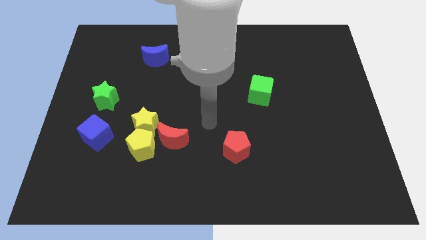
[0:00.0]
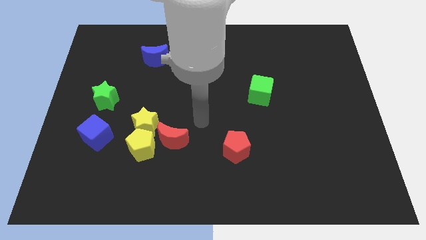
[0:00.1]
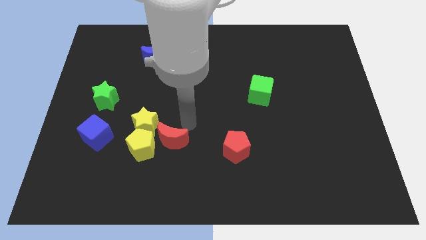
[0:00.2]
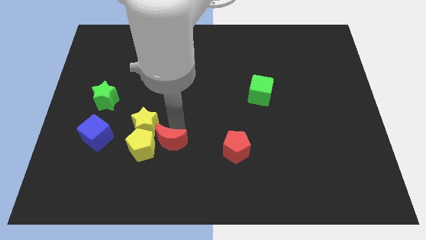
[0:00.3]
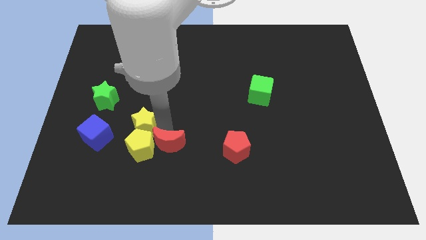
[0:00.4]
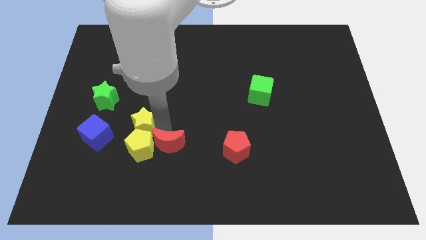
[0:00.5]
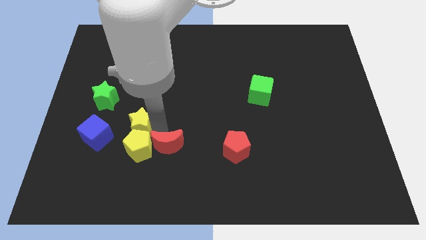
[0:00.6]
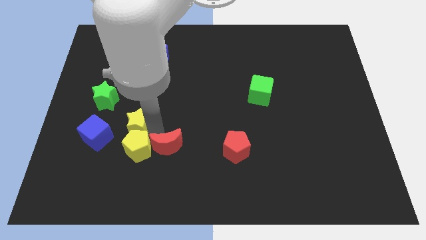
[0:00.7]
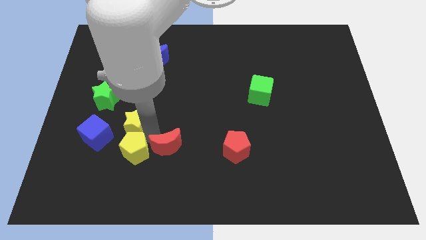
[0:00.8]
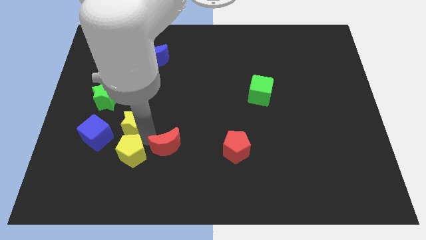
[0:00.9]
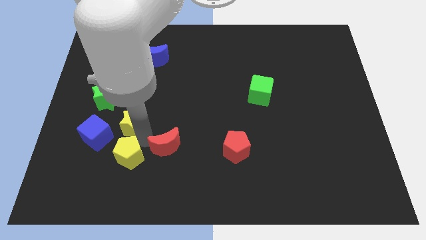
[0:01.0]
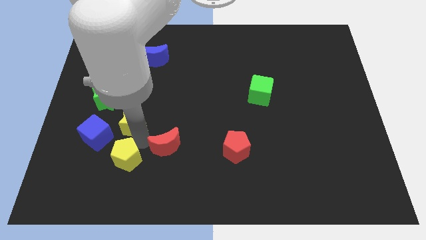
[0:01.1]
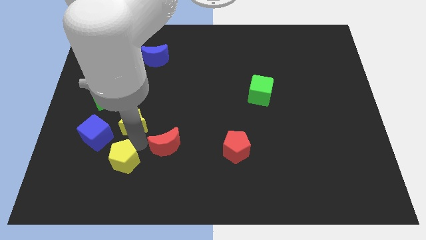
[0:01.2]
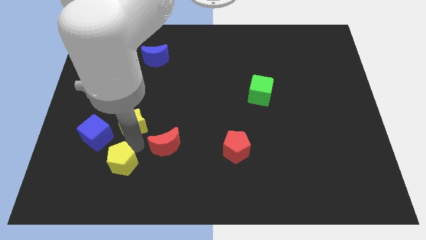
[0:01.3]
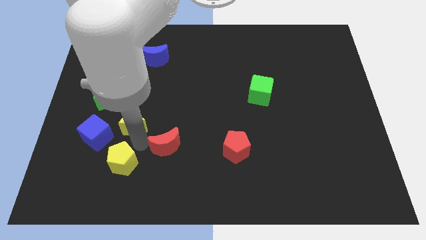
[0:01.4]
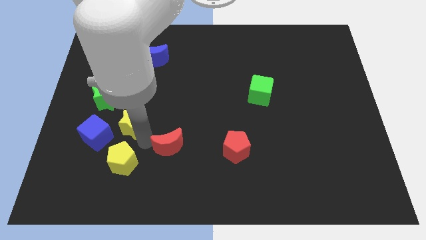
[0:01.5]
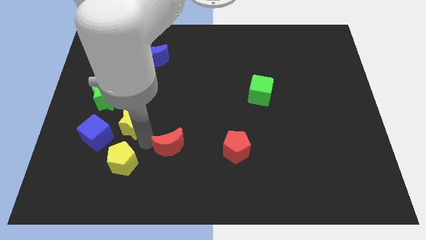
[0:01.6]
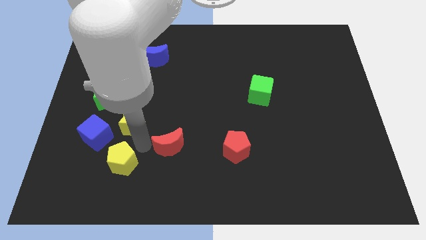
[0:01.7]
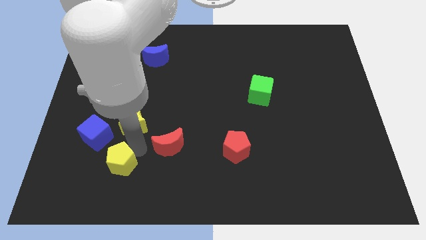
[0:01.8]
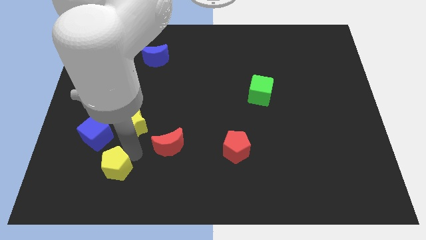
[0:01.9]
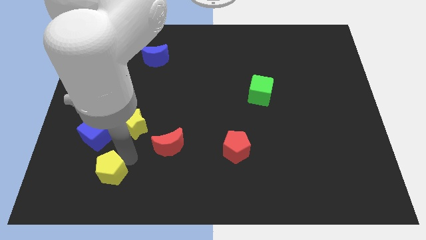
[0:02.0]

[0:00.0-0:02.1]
pull the yellow pentagon apart from the yellow star and red moon

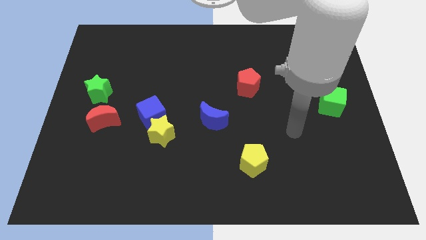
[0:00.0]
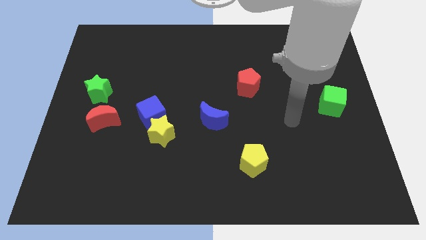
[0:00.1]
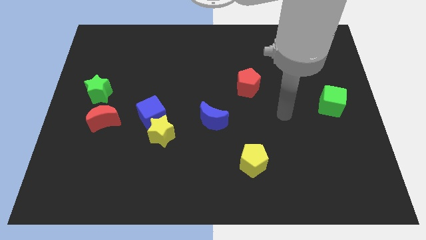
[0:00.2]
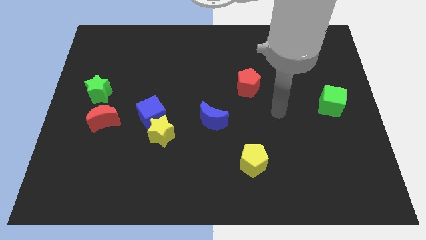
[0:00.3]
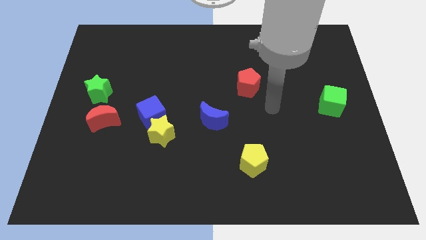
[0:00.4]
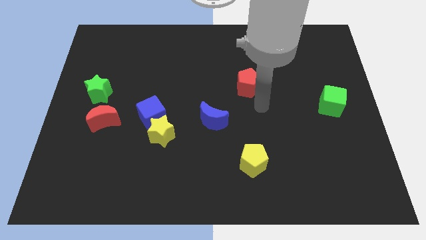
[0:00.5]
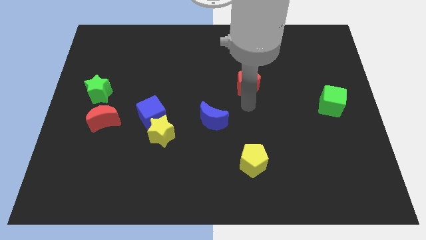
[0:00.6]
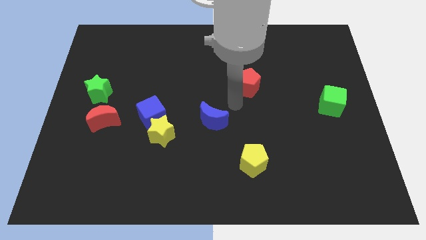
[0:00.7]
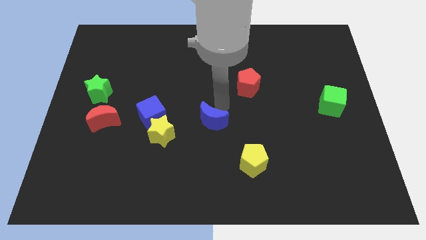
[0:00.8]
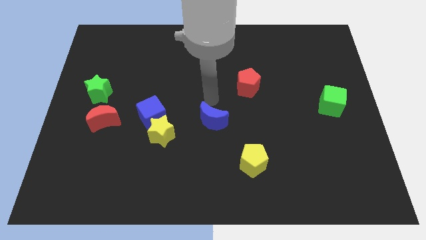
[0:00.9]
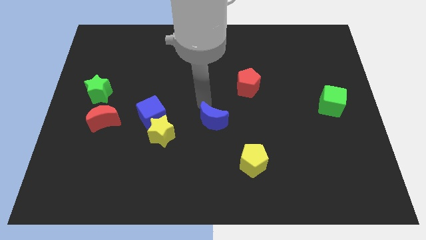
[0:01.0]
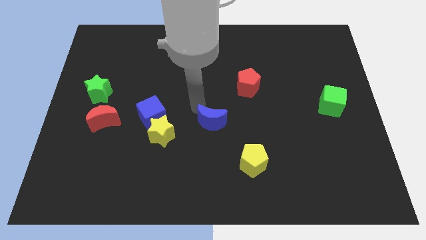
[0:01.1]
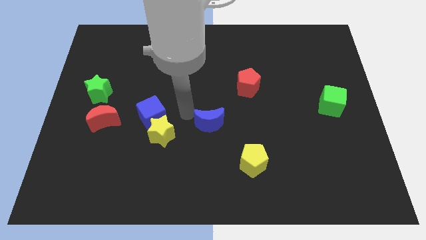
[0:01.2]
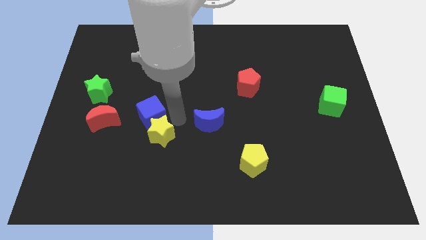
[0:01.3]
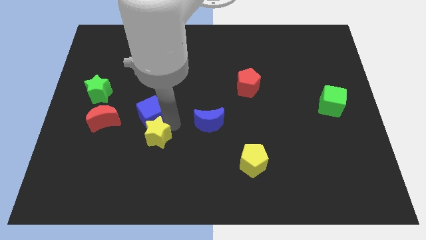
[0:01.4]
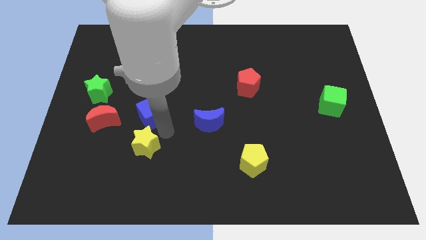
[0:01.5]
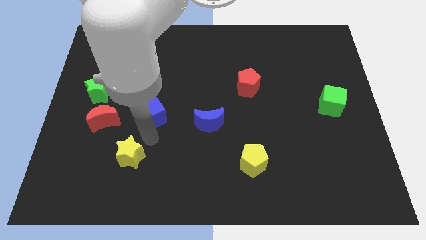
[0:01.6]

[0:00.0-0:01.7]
move the blue cube away from the yellow star

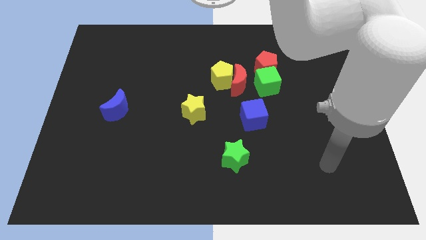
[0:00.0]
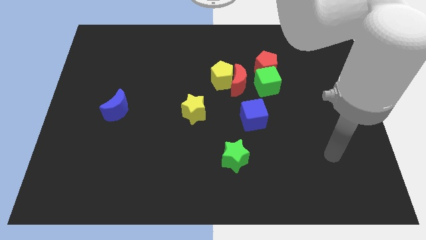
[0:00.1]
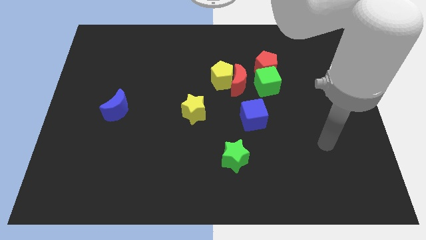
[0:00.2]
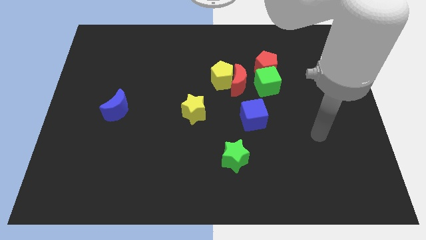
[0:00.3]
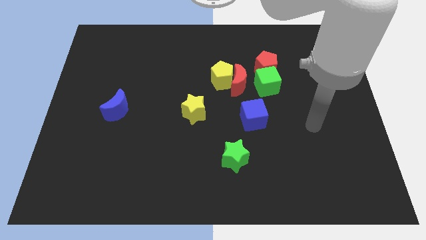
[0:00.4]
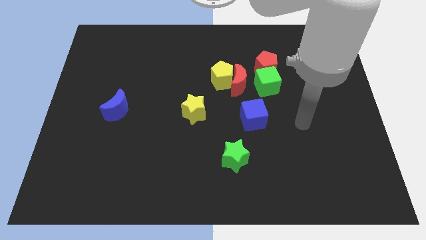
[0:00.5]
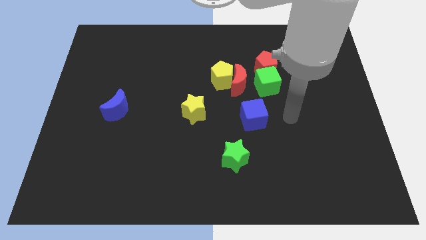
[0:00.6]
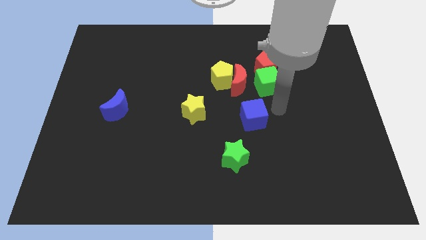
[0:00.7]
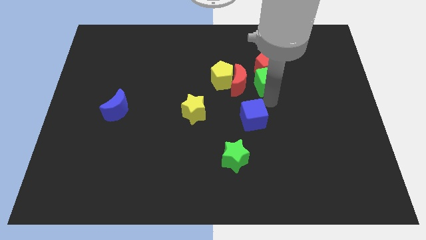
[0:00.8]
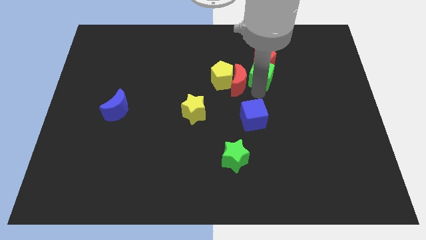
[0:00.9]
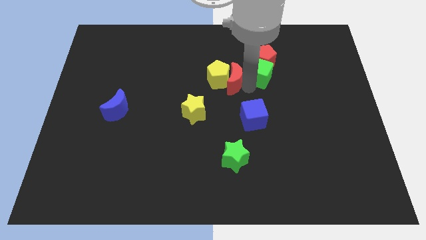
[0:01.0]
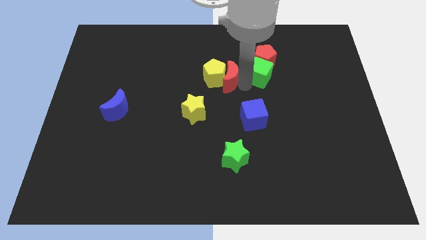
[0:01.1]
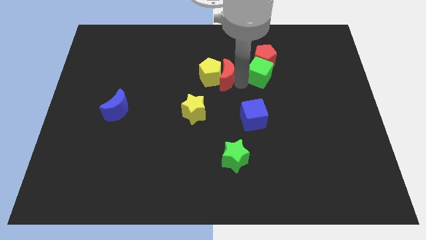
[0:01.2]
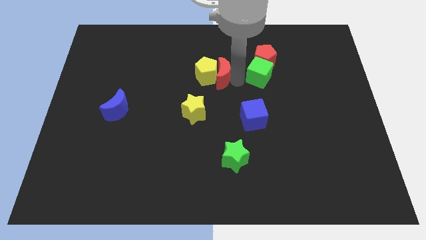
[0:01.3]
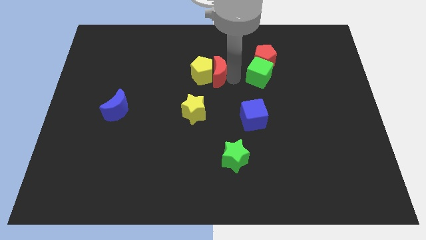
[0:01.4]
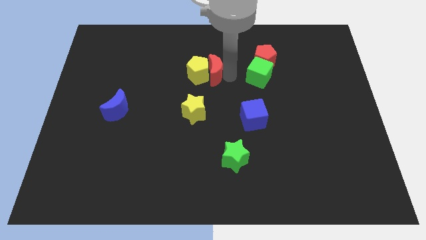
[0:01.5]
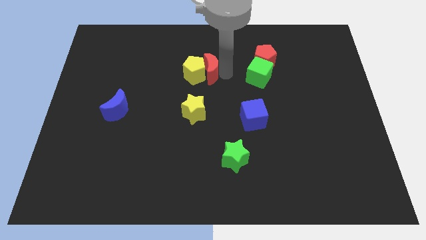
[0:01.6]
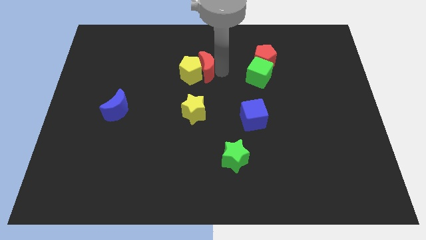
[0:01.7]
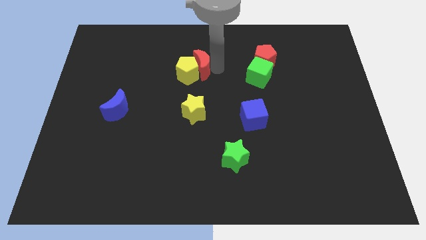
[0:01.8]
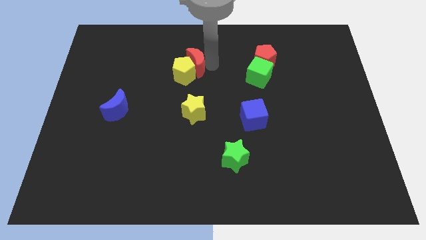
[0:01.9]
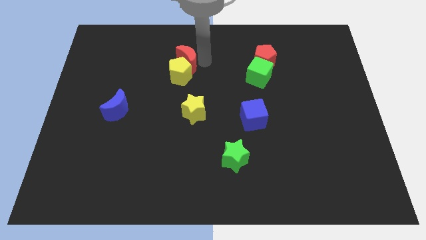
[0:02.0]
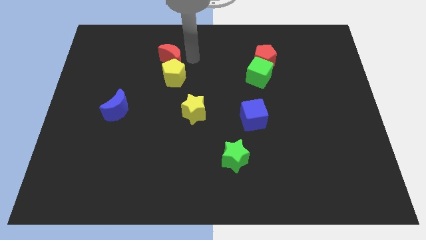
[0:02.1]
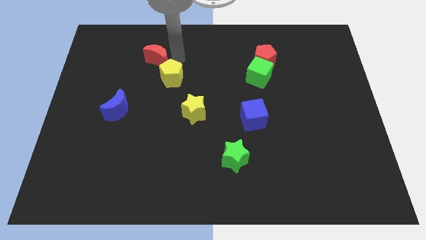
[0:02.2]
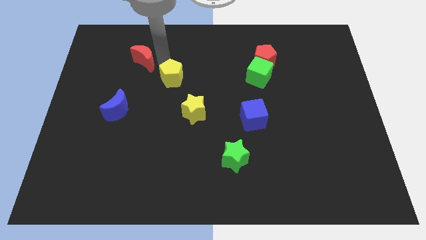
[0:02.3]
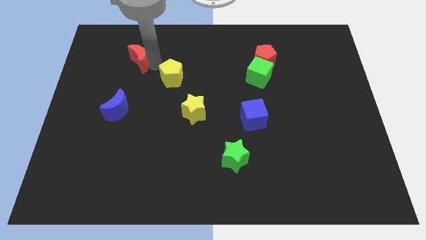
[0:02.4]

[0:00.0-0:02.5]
separate the yellow pentagon from the red moon

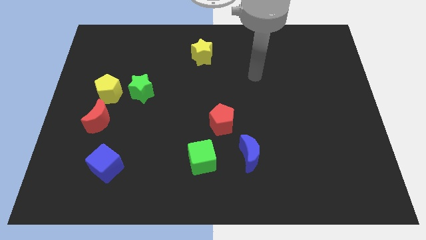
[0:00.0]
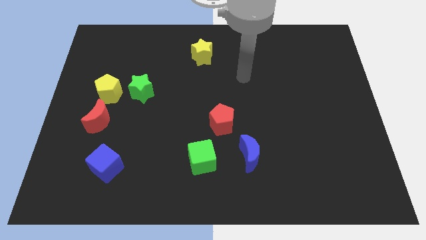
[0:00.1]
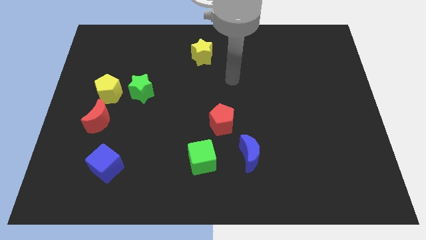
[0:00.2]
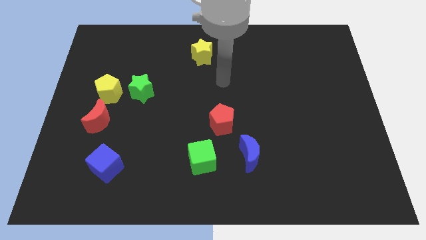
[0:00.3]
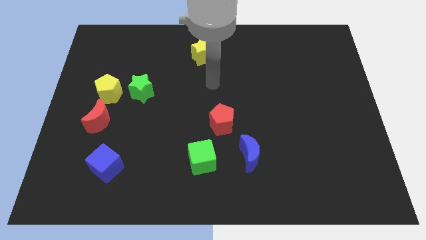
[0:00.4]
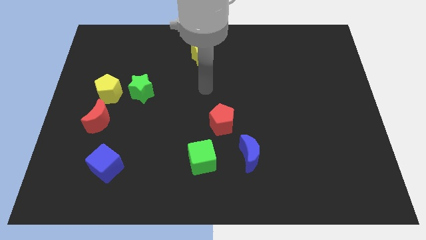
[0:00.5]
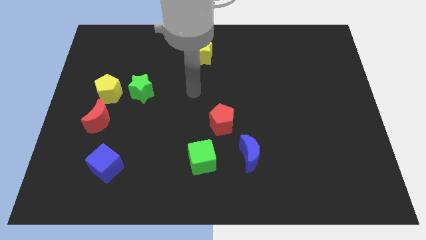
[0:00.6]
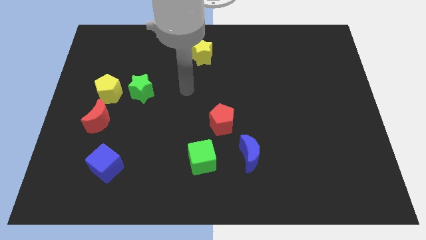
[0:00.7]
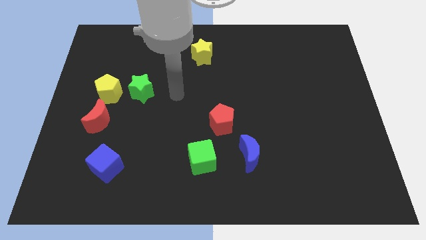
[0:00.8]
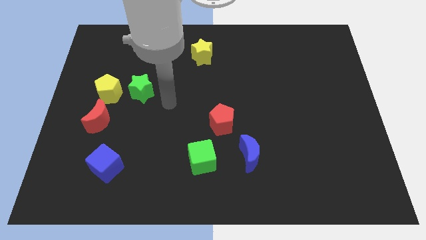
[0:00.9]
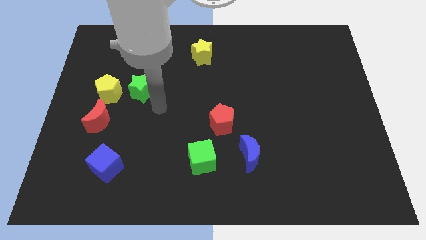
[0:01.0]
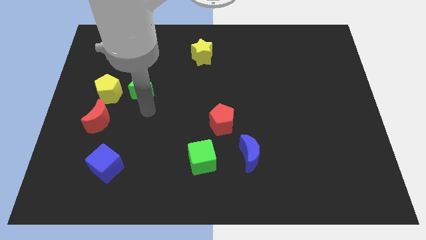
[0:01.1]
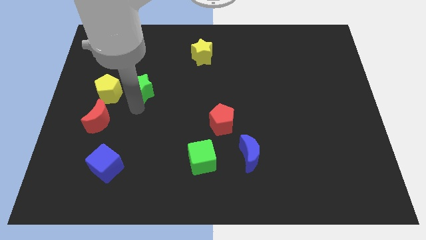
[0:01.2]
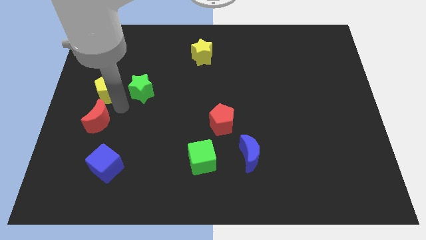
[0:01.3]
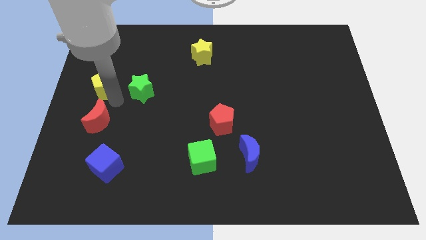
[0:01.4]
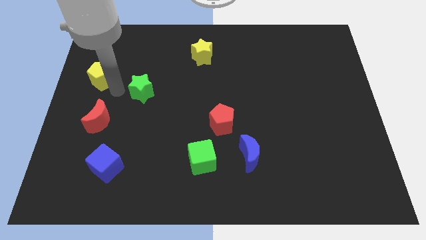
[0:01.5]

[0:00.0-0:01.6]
pull the green star apart from the yellow pentagon

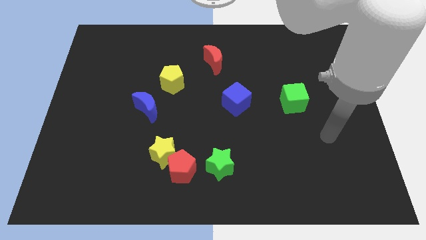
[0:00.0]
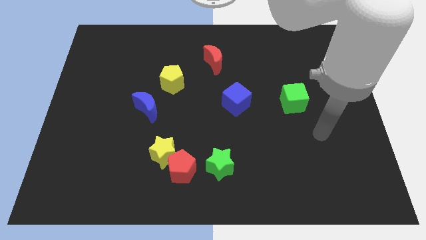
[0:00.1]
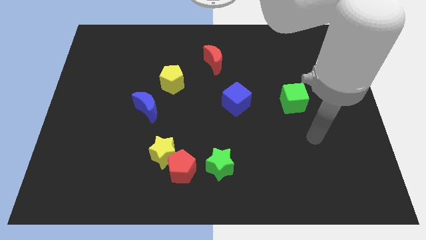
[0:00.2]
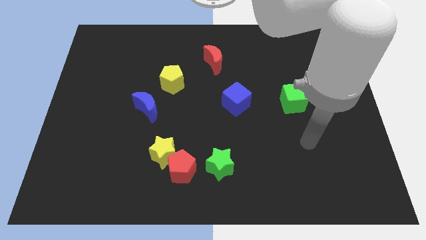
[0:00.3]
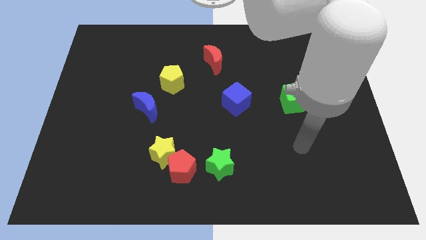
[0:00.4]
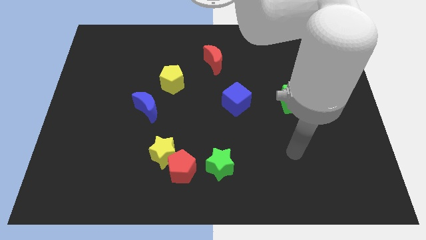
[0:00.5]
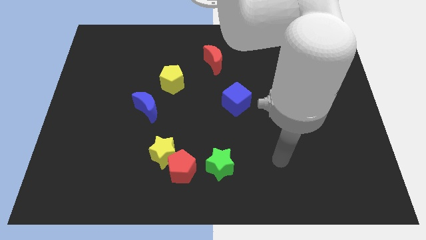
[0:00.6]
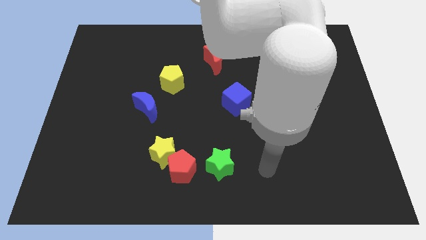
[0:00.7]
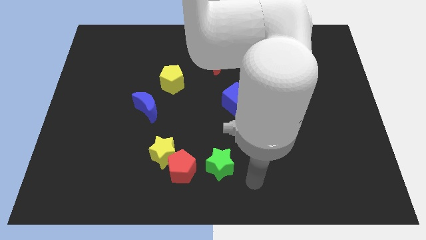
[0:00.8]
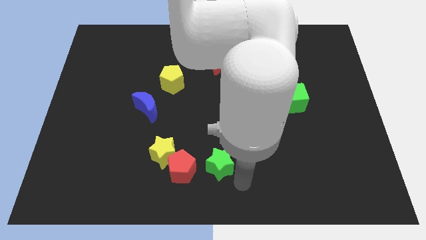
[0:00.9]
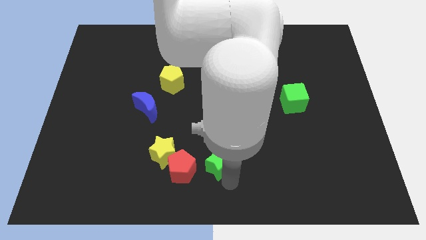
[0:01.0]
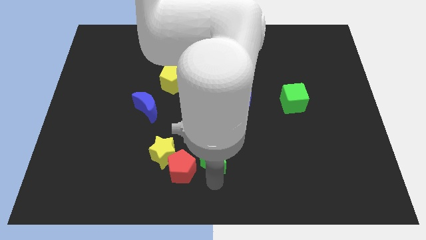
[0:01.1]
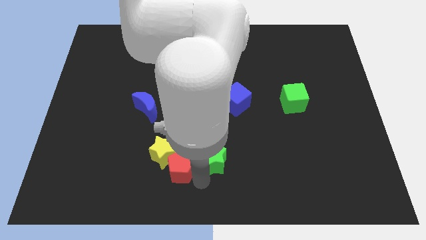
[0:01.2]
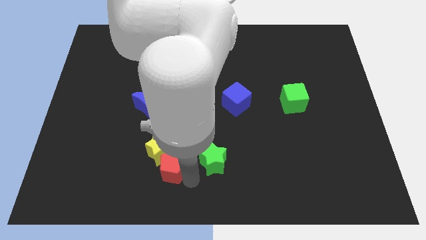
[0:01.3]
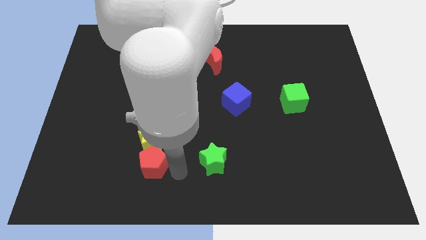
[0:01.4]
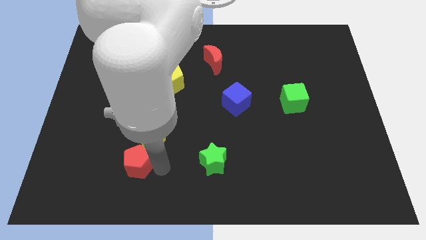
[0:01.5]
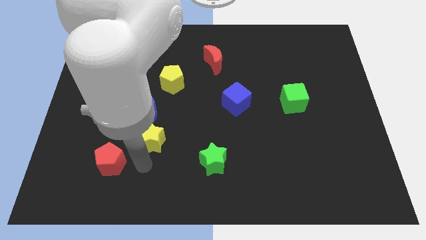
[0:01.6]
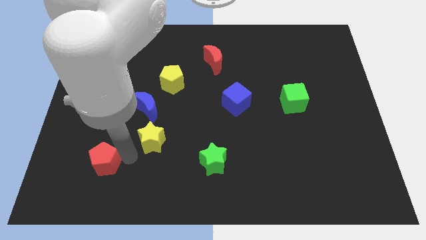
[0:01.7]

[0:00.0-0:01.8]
separate the yellow star from the red pentagon
